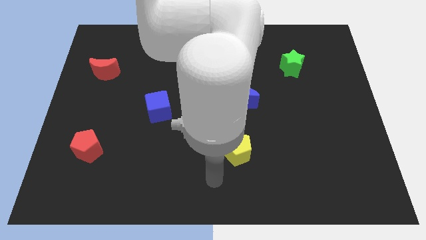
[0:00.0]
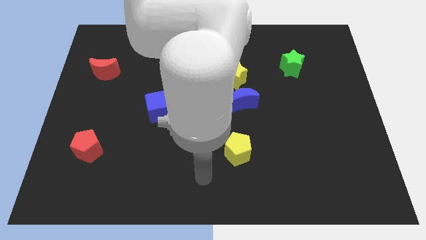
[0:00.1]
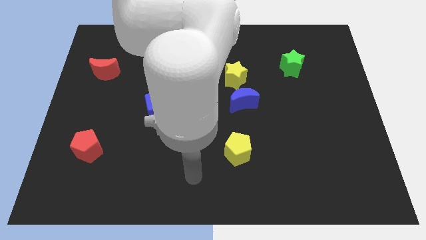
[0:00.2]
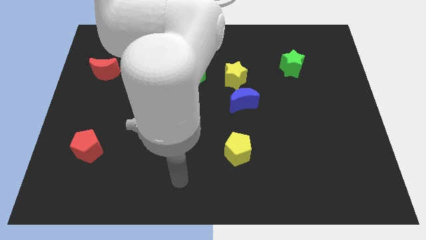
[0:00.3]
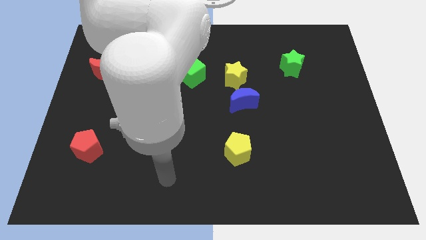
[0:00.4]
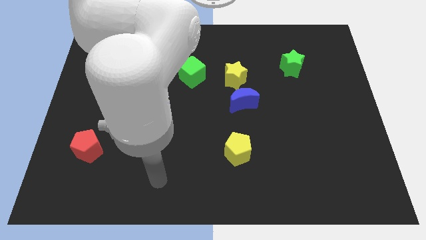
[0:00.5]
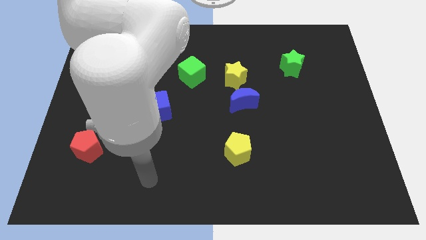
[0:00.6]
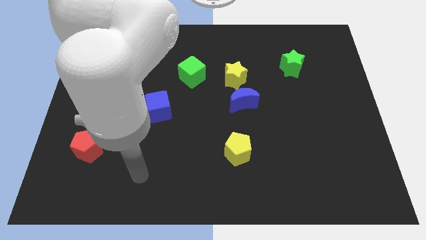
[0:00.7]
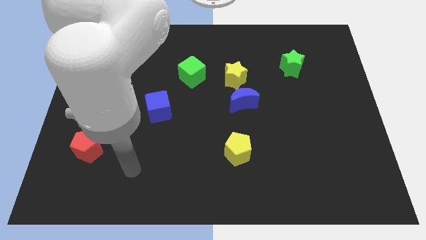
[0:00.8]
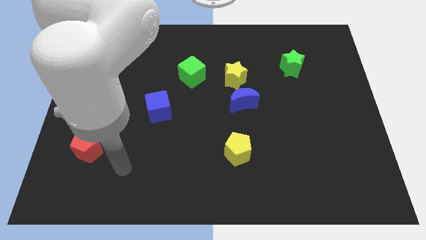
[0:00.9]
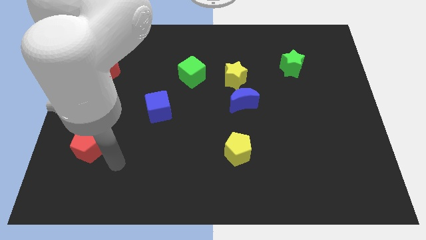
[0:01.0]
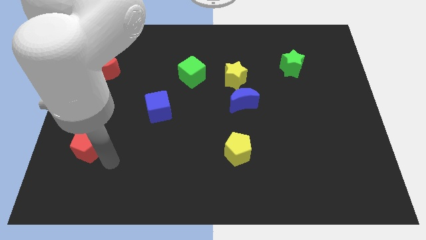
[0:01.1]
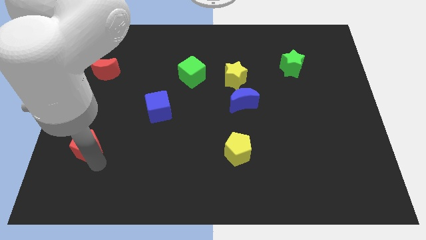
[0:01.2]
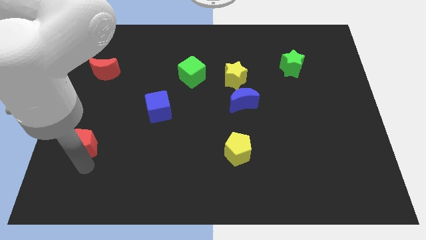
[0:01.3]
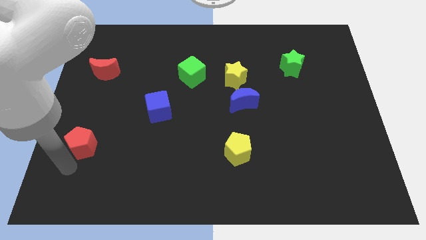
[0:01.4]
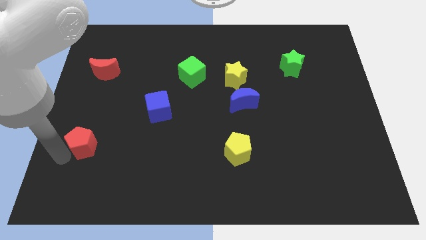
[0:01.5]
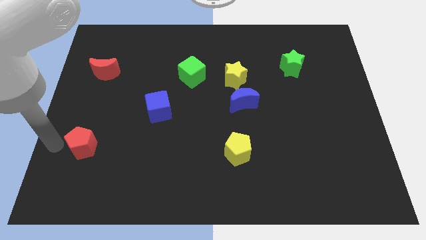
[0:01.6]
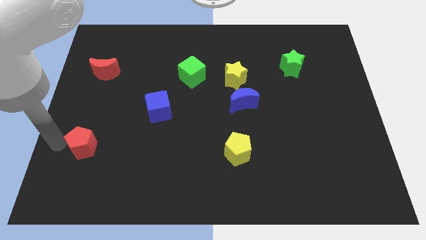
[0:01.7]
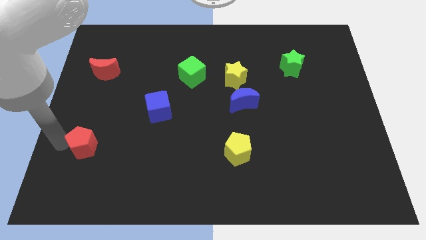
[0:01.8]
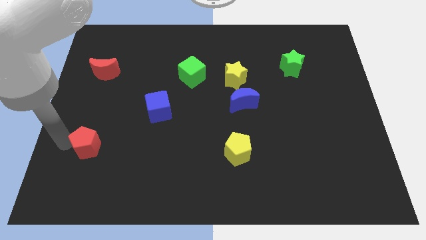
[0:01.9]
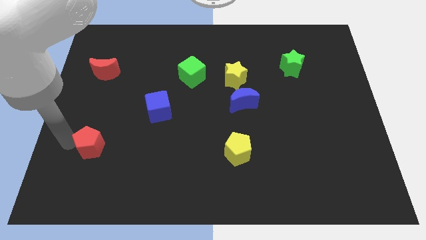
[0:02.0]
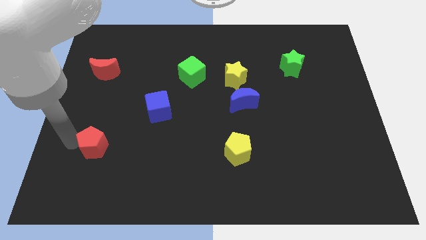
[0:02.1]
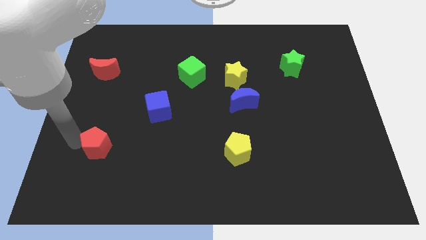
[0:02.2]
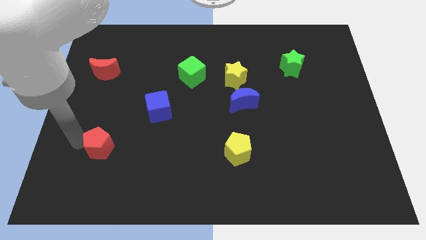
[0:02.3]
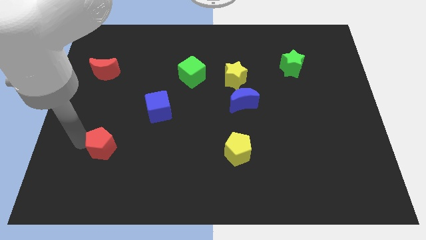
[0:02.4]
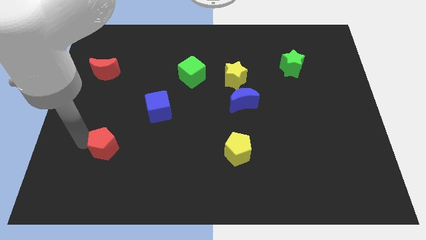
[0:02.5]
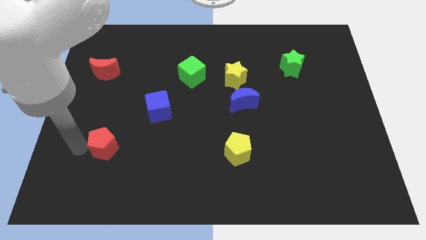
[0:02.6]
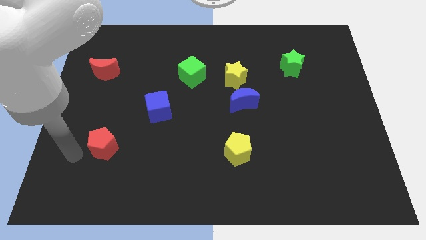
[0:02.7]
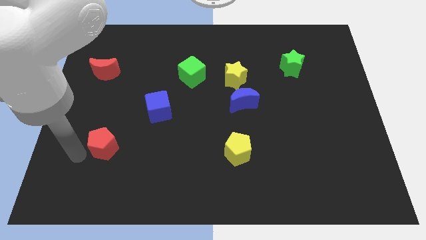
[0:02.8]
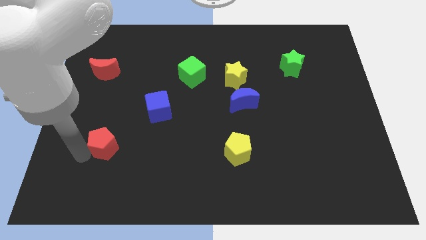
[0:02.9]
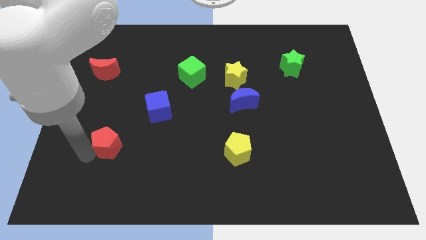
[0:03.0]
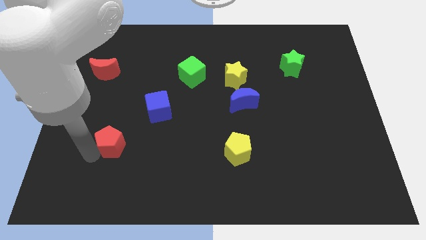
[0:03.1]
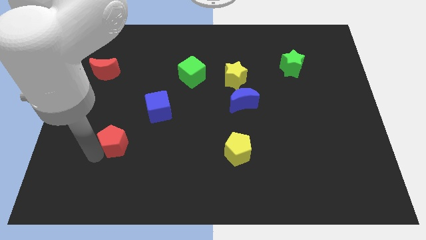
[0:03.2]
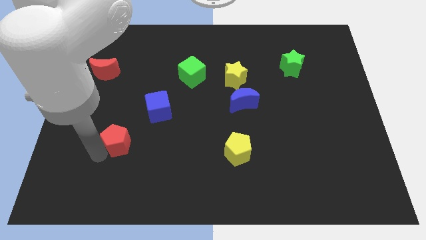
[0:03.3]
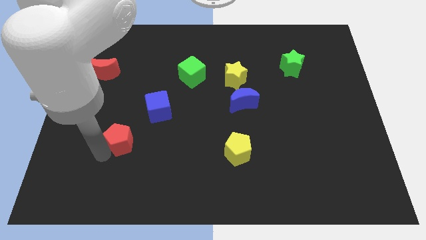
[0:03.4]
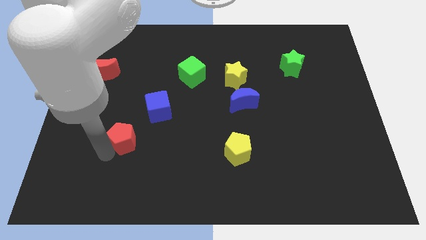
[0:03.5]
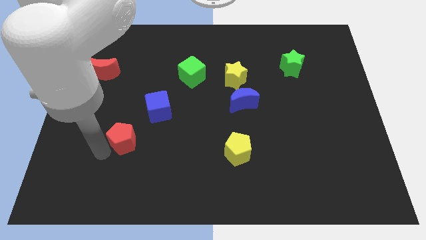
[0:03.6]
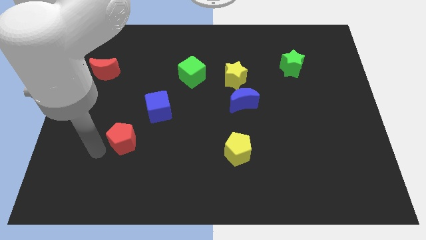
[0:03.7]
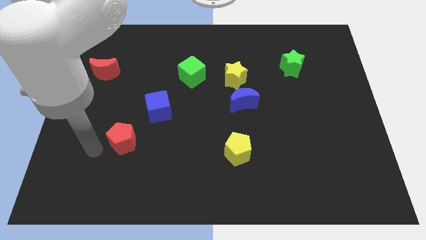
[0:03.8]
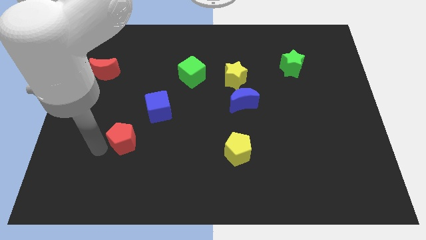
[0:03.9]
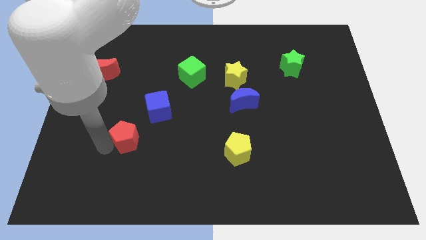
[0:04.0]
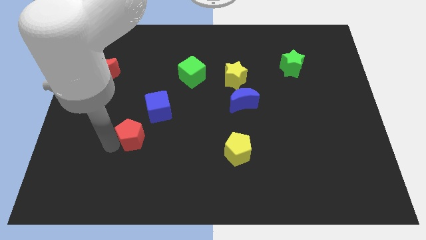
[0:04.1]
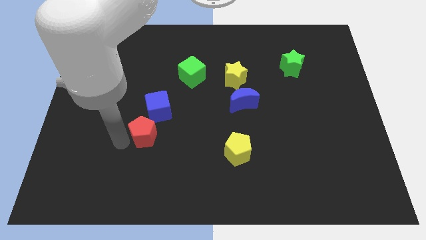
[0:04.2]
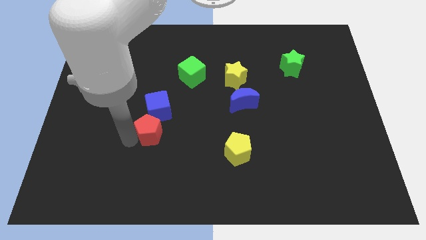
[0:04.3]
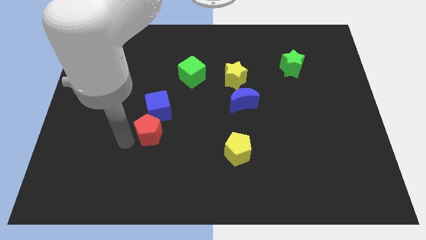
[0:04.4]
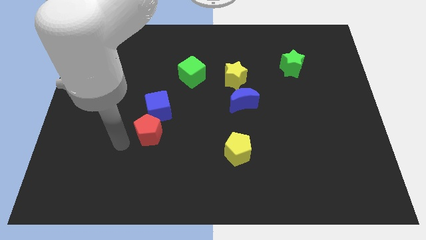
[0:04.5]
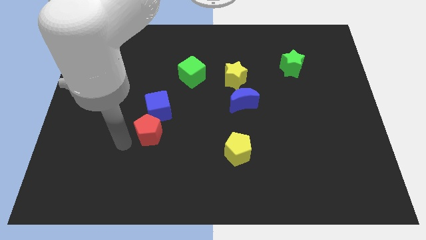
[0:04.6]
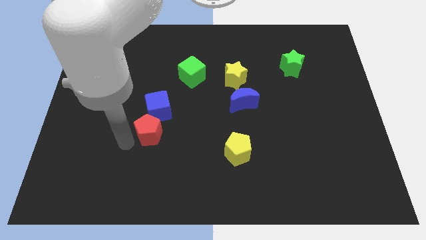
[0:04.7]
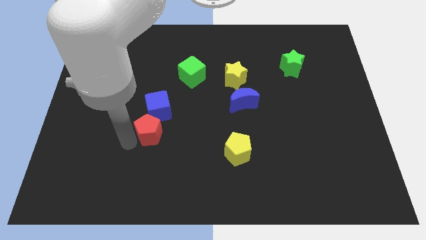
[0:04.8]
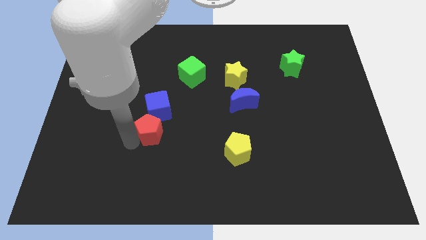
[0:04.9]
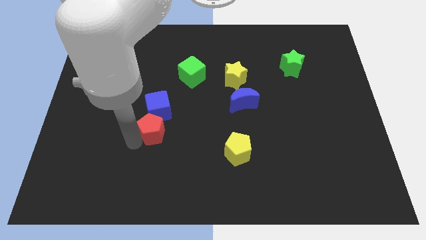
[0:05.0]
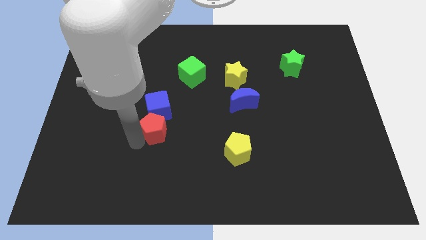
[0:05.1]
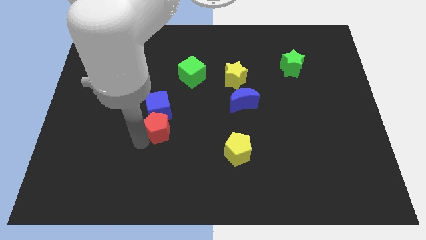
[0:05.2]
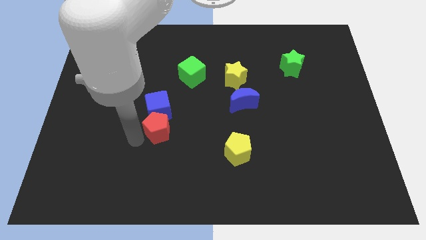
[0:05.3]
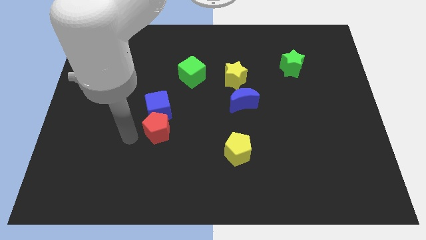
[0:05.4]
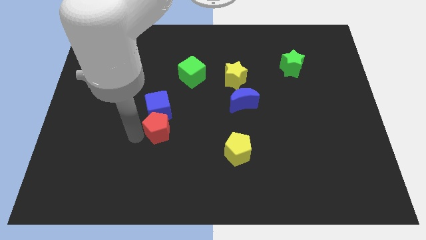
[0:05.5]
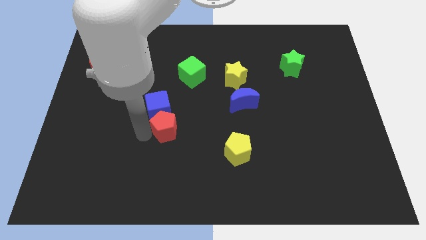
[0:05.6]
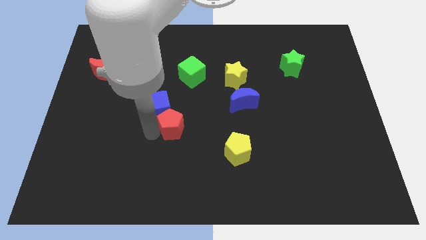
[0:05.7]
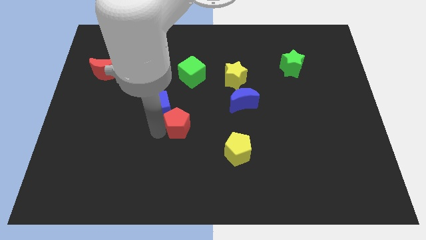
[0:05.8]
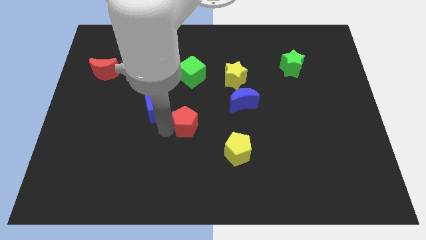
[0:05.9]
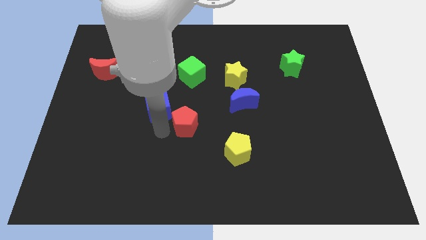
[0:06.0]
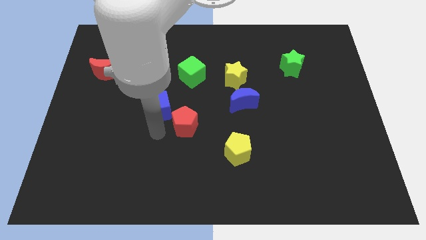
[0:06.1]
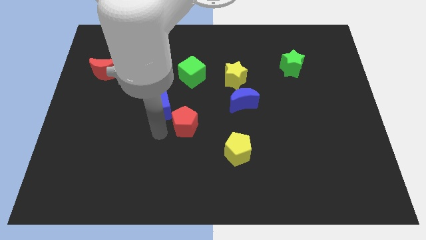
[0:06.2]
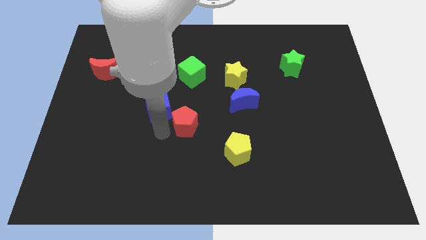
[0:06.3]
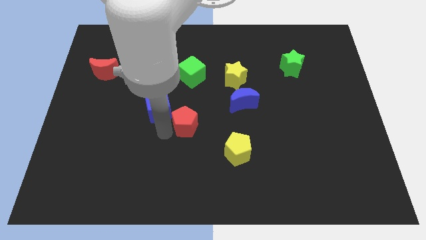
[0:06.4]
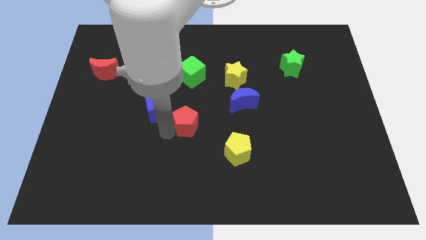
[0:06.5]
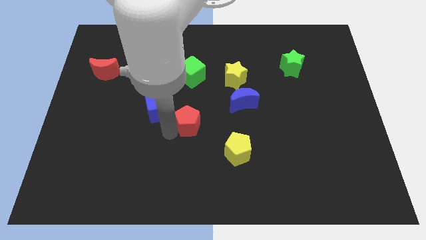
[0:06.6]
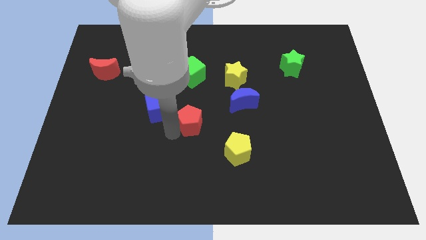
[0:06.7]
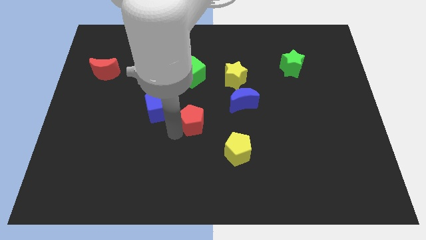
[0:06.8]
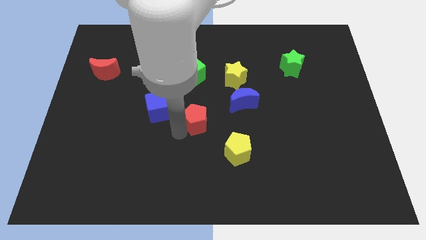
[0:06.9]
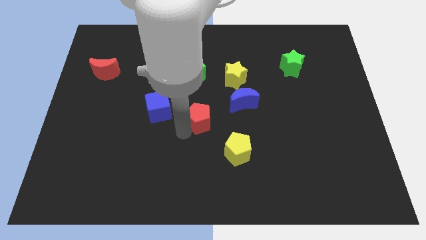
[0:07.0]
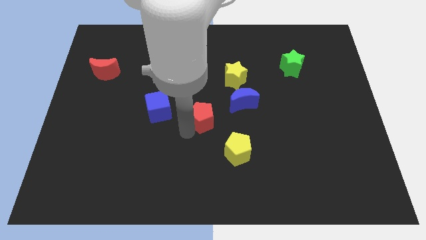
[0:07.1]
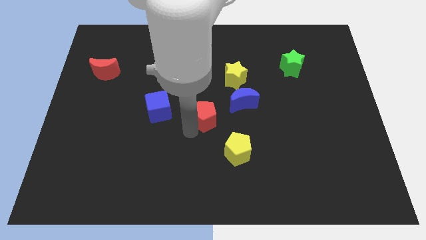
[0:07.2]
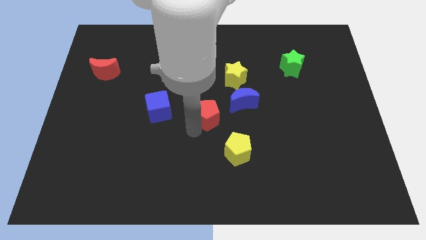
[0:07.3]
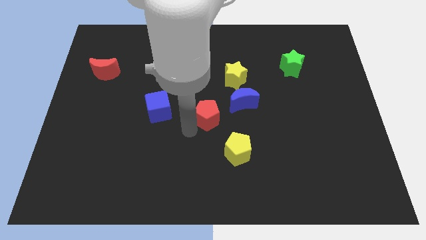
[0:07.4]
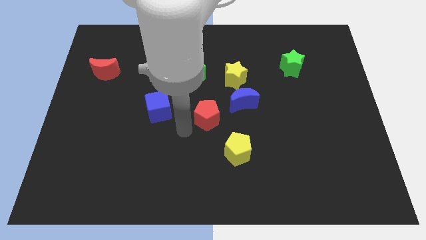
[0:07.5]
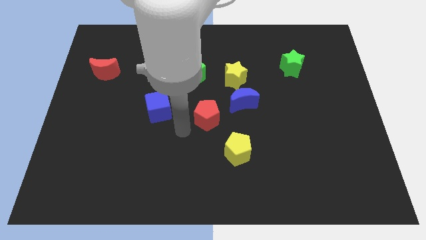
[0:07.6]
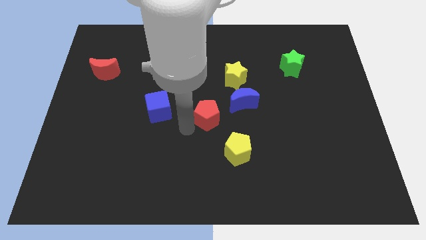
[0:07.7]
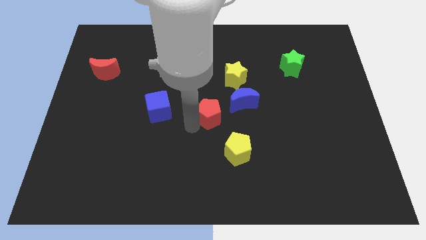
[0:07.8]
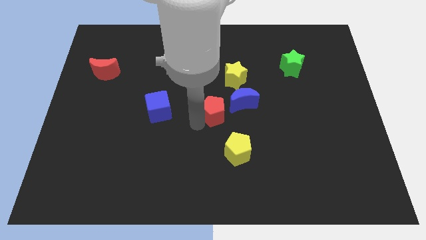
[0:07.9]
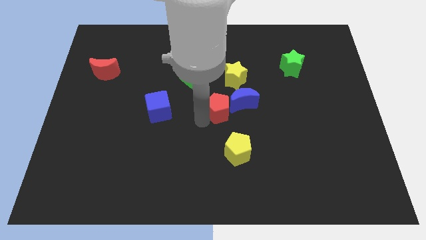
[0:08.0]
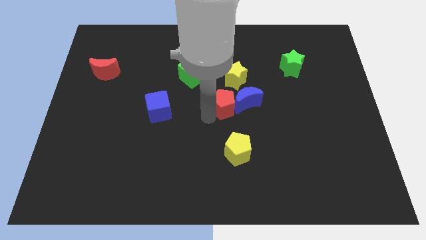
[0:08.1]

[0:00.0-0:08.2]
put the red pentagon to the blue moon
